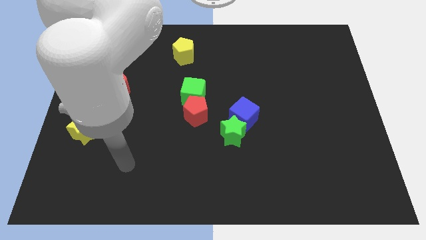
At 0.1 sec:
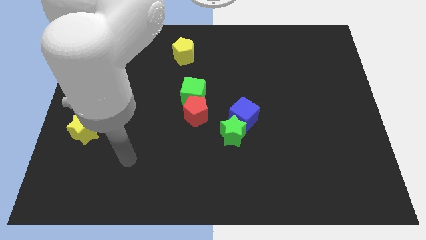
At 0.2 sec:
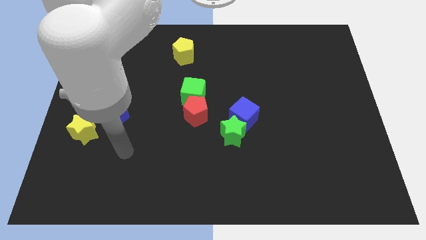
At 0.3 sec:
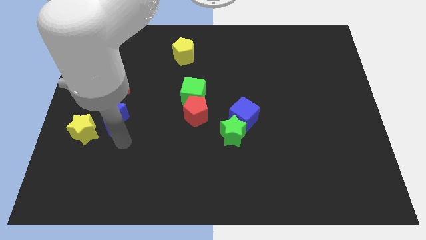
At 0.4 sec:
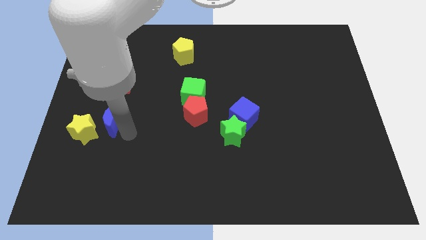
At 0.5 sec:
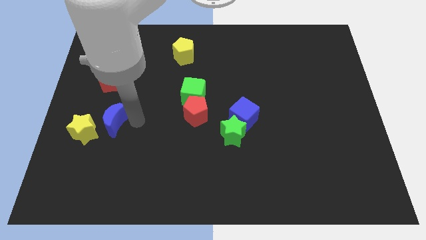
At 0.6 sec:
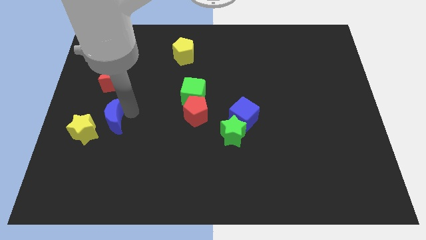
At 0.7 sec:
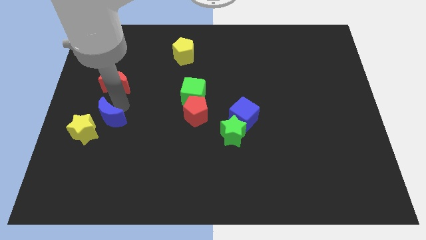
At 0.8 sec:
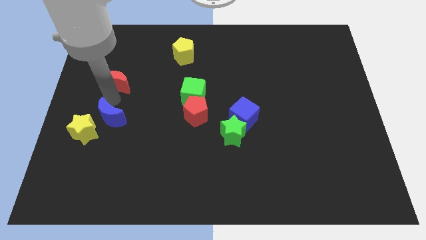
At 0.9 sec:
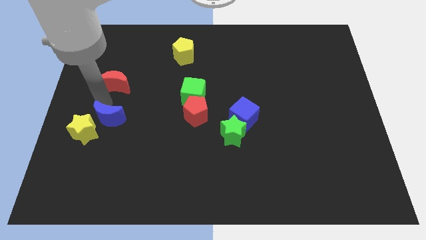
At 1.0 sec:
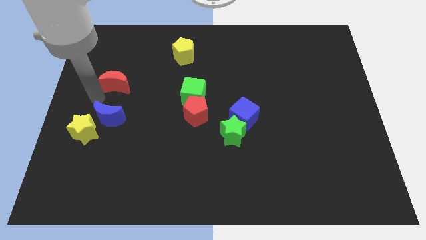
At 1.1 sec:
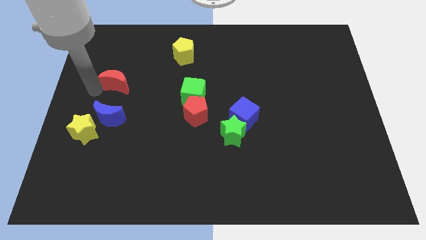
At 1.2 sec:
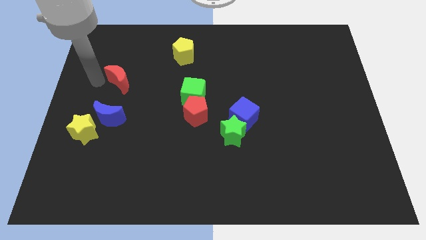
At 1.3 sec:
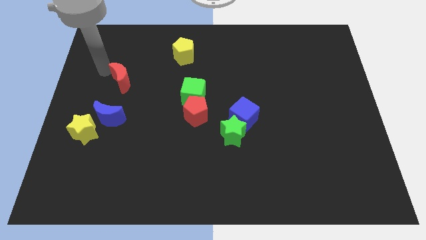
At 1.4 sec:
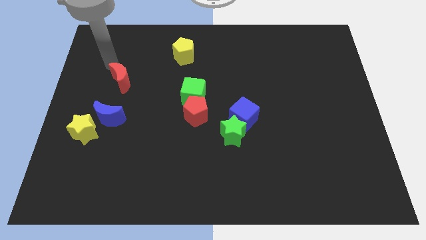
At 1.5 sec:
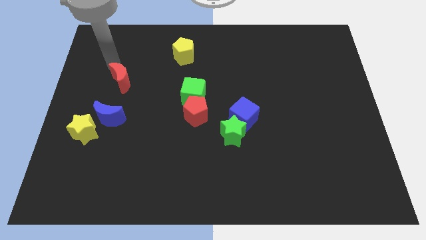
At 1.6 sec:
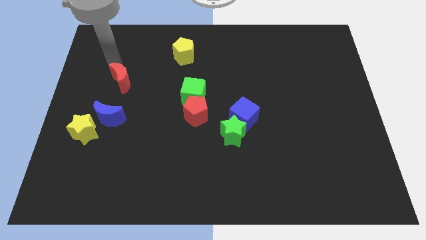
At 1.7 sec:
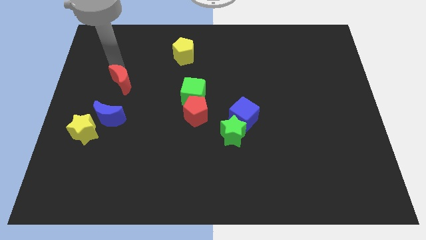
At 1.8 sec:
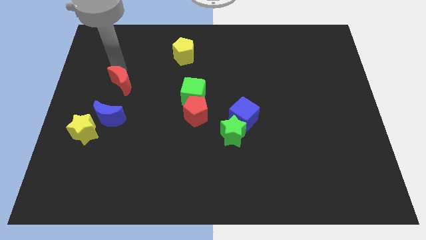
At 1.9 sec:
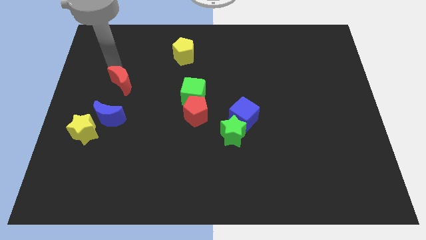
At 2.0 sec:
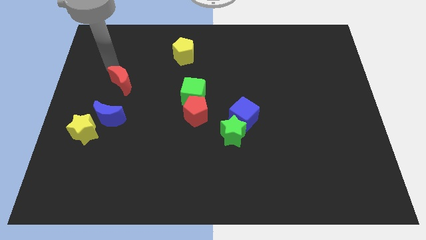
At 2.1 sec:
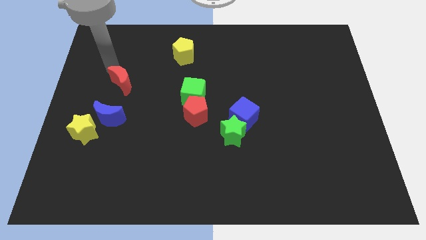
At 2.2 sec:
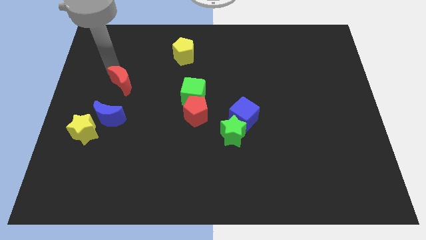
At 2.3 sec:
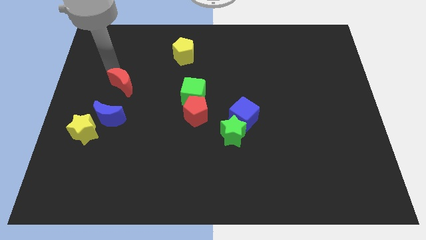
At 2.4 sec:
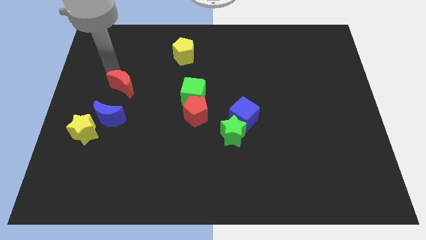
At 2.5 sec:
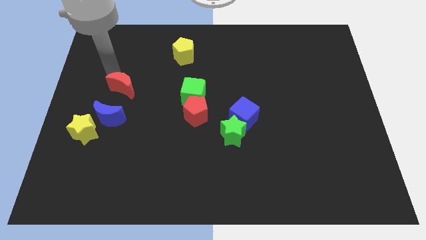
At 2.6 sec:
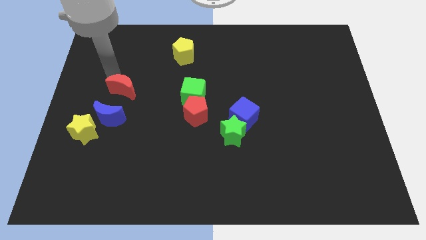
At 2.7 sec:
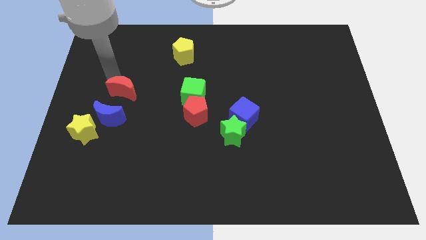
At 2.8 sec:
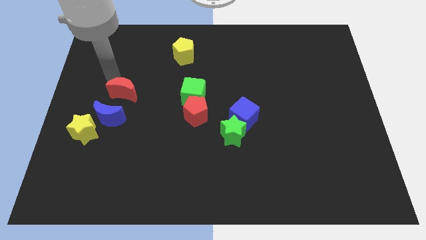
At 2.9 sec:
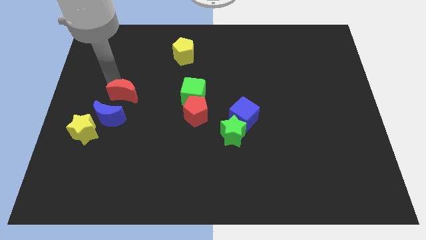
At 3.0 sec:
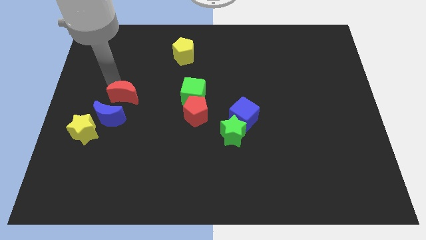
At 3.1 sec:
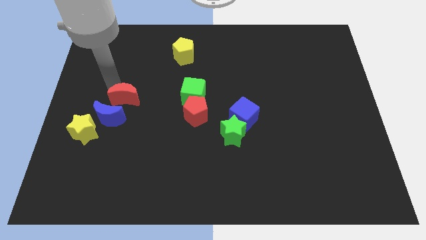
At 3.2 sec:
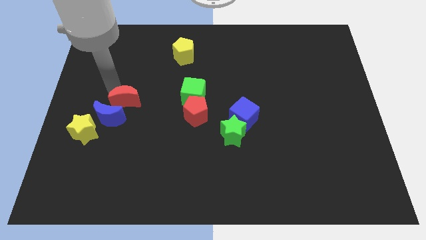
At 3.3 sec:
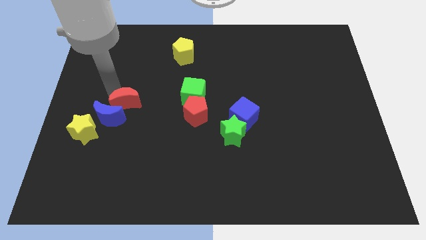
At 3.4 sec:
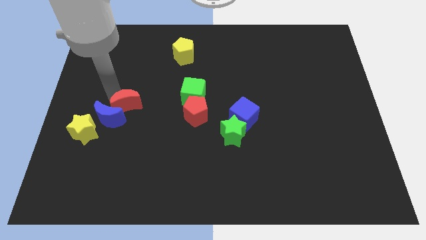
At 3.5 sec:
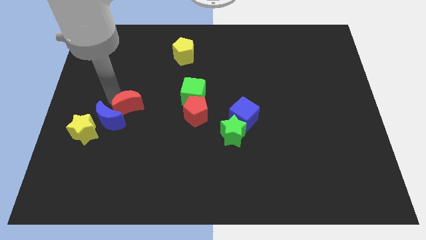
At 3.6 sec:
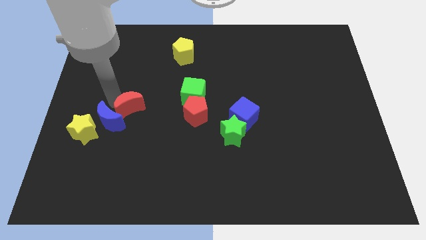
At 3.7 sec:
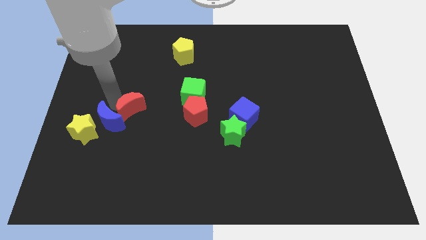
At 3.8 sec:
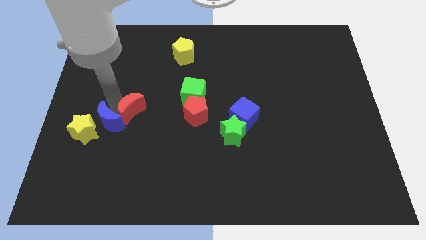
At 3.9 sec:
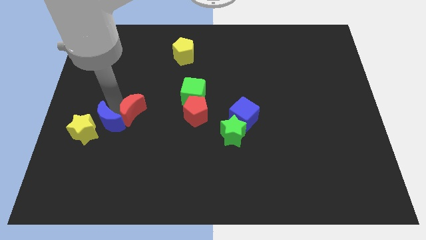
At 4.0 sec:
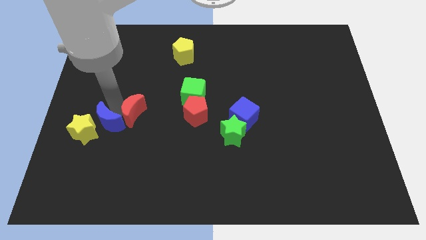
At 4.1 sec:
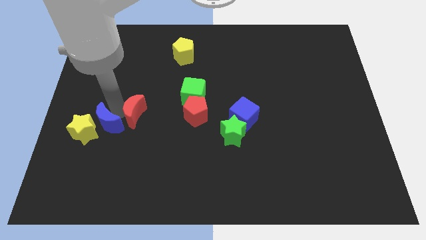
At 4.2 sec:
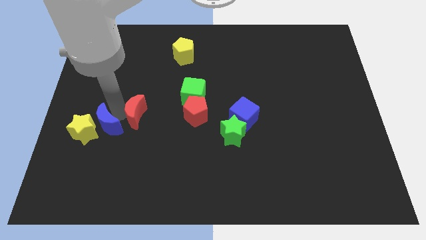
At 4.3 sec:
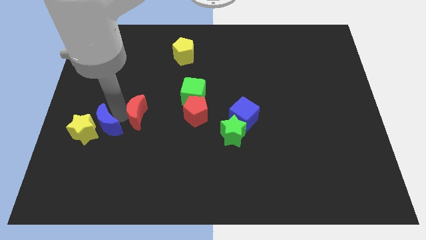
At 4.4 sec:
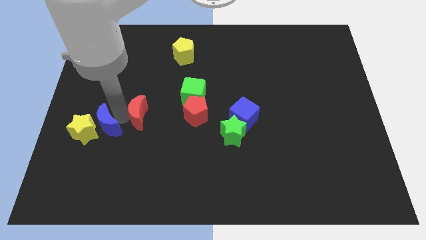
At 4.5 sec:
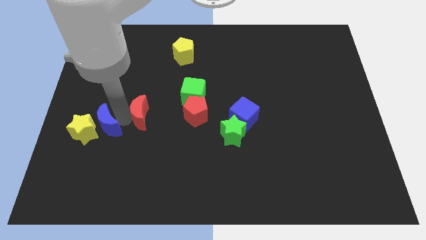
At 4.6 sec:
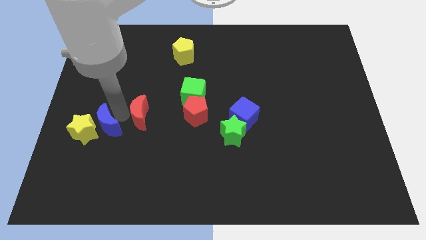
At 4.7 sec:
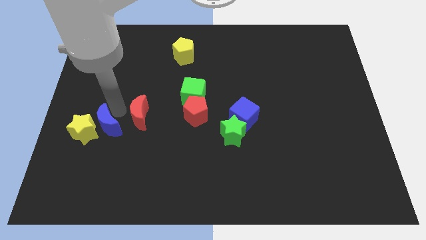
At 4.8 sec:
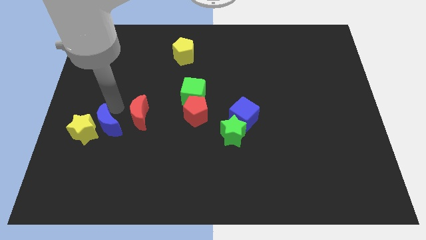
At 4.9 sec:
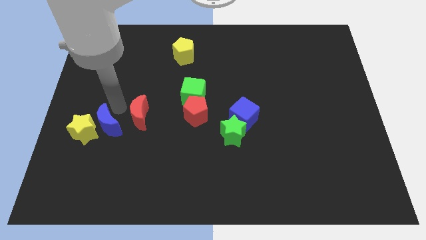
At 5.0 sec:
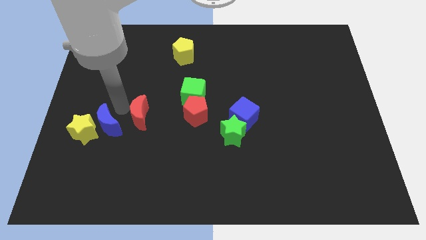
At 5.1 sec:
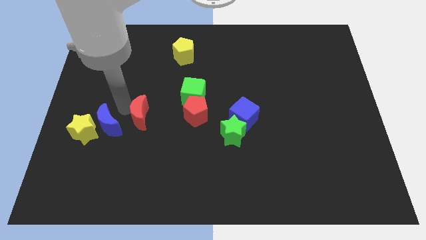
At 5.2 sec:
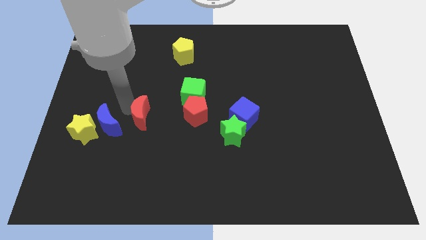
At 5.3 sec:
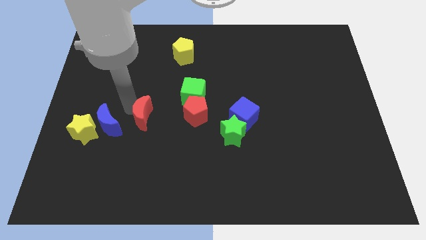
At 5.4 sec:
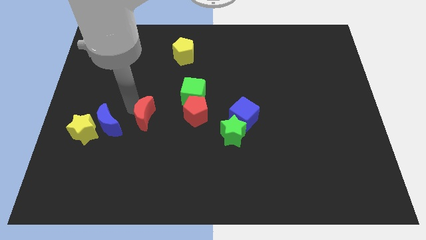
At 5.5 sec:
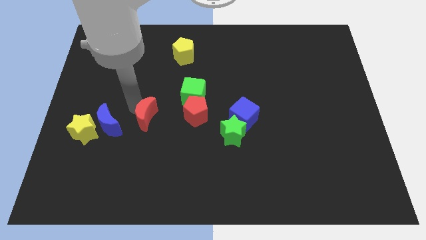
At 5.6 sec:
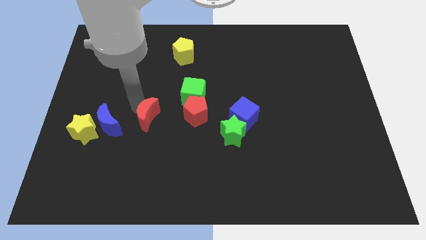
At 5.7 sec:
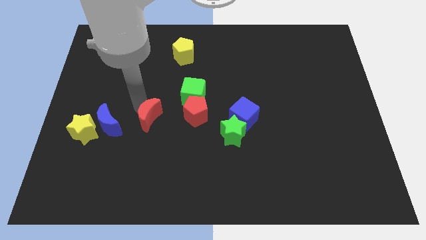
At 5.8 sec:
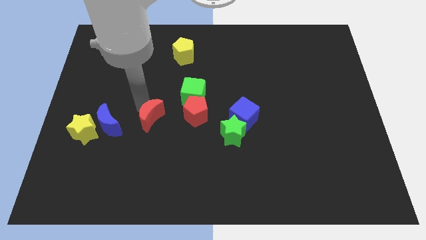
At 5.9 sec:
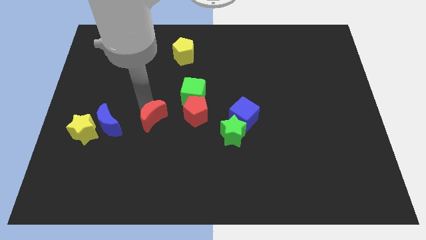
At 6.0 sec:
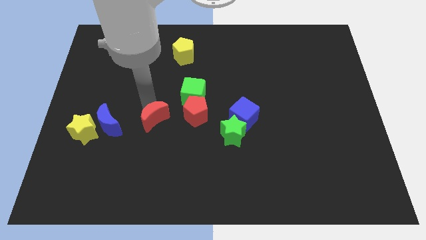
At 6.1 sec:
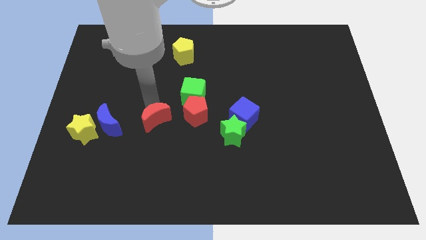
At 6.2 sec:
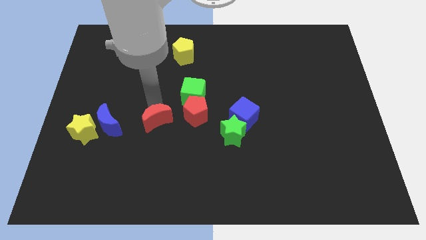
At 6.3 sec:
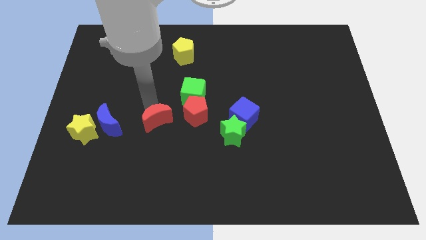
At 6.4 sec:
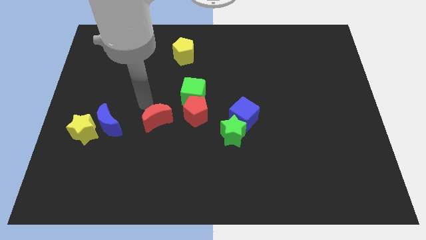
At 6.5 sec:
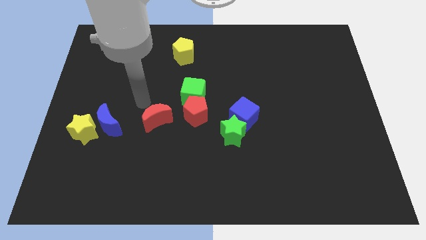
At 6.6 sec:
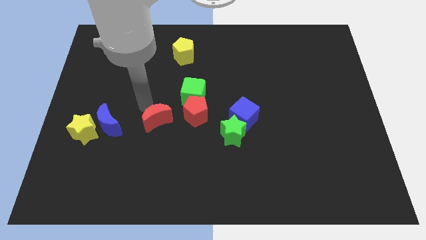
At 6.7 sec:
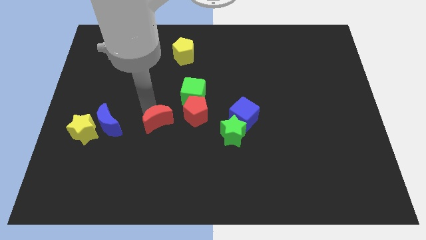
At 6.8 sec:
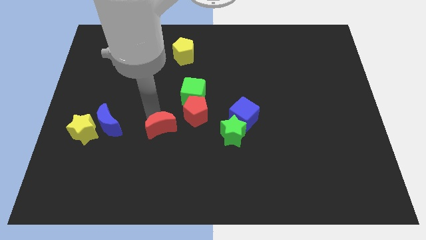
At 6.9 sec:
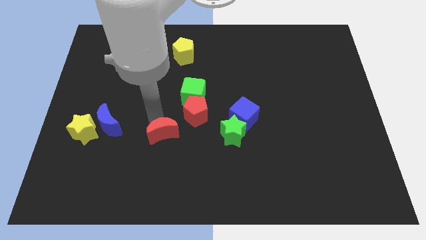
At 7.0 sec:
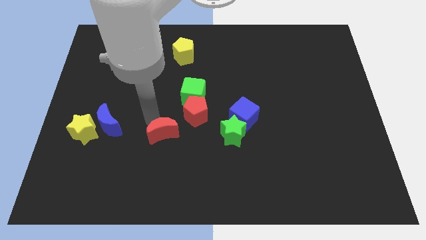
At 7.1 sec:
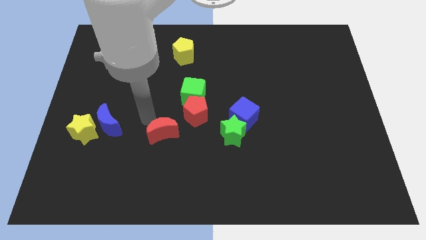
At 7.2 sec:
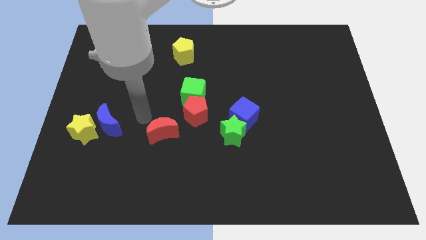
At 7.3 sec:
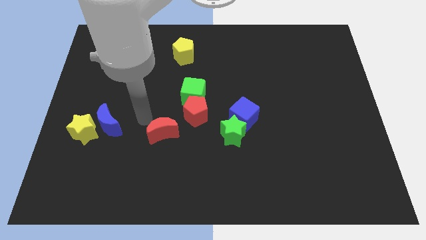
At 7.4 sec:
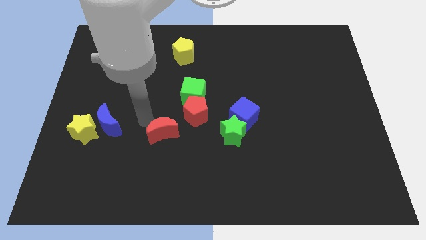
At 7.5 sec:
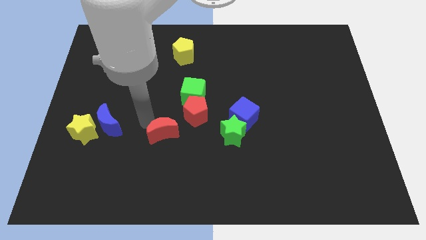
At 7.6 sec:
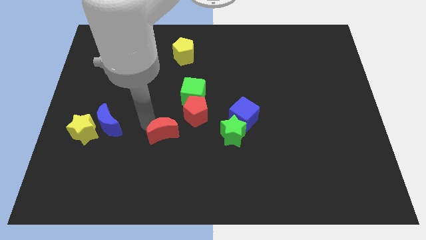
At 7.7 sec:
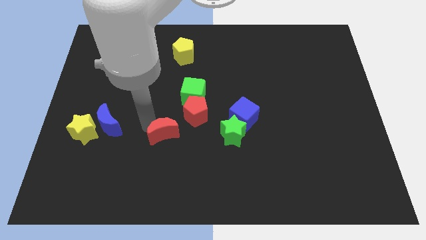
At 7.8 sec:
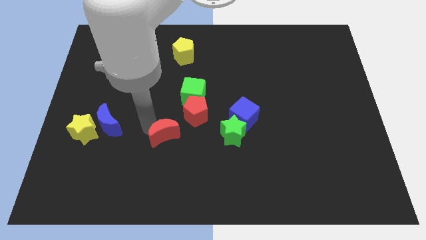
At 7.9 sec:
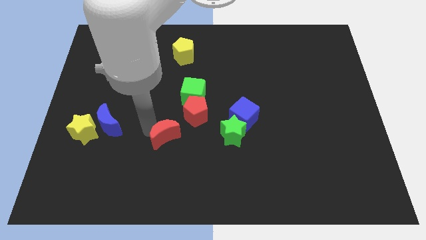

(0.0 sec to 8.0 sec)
move the red moon downwards and right
